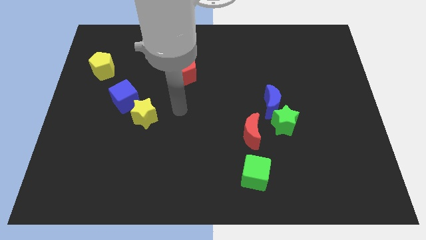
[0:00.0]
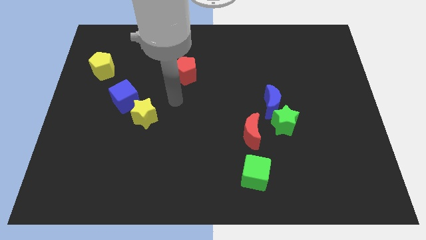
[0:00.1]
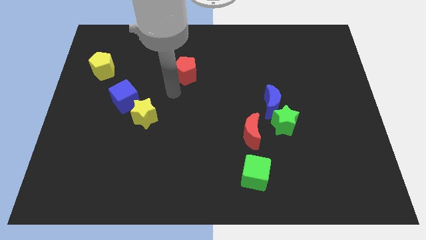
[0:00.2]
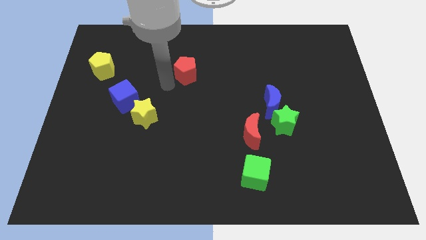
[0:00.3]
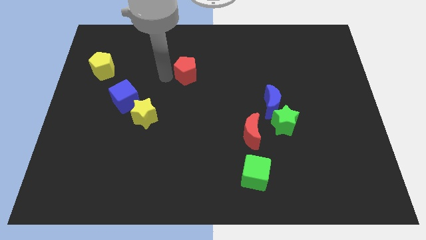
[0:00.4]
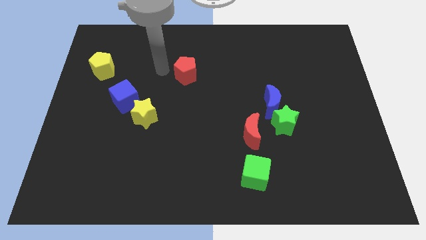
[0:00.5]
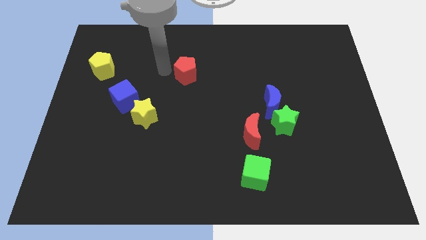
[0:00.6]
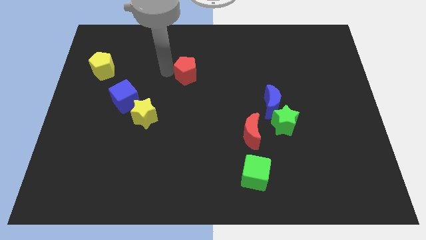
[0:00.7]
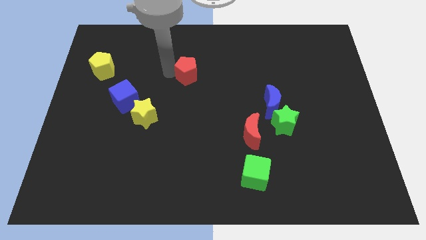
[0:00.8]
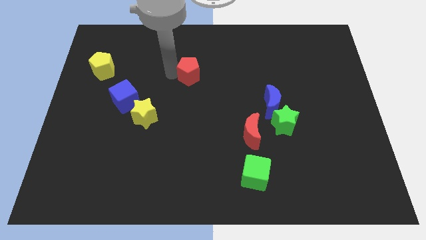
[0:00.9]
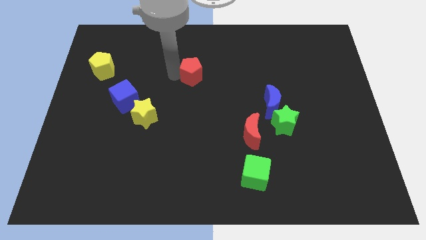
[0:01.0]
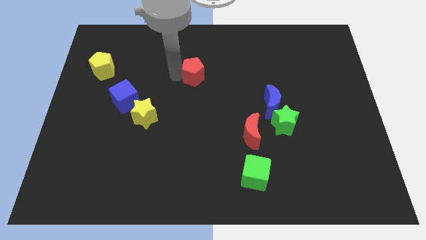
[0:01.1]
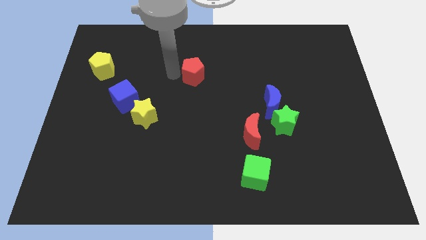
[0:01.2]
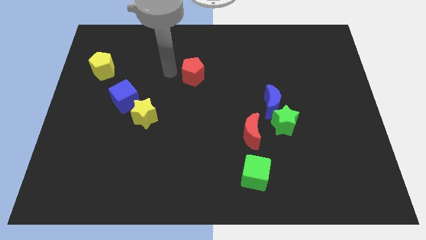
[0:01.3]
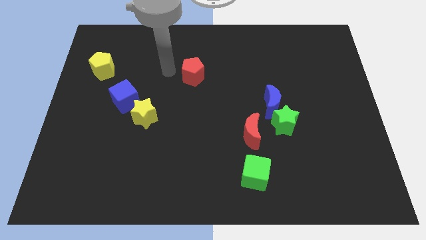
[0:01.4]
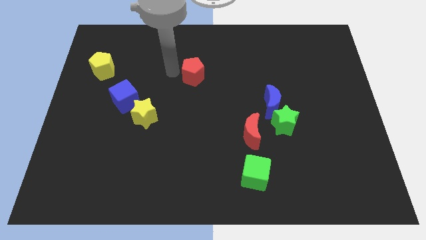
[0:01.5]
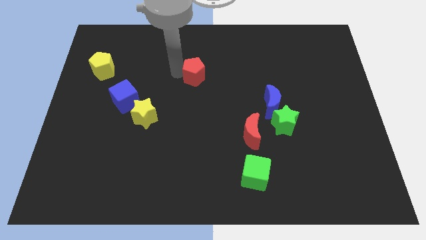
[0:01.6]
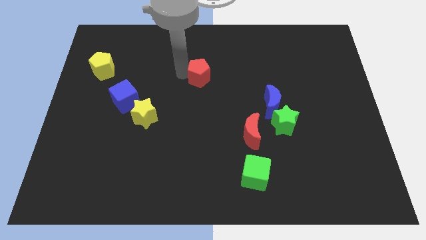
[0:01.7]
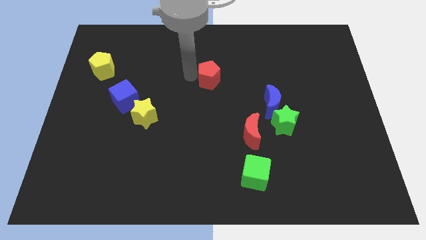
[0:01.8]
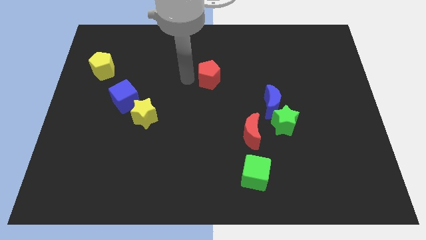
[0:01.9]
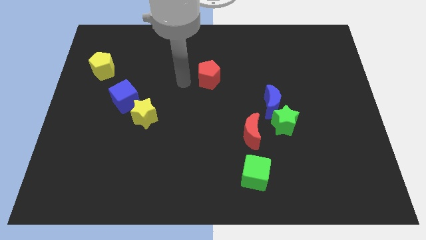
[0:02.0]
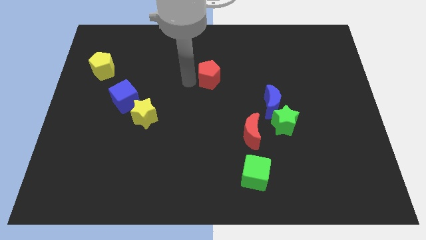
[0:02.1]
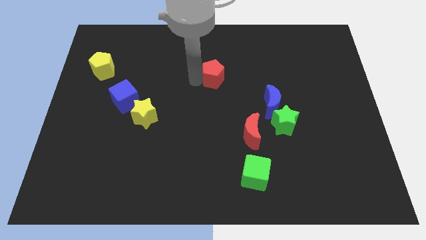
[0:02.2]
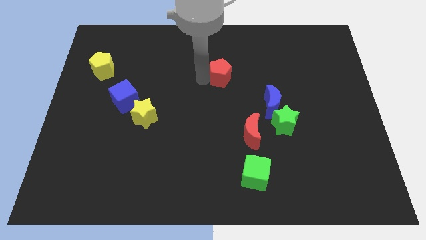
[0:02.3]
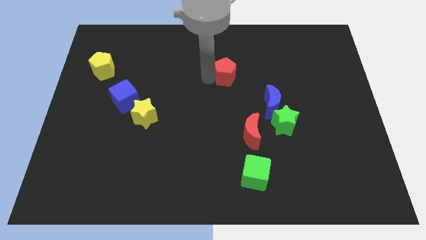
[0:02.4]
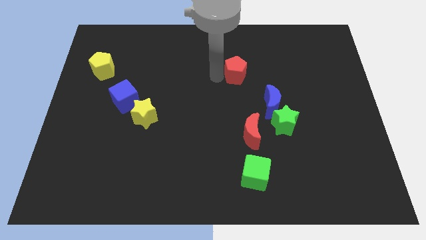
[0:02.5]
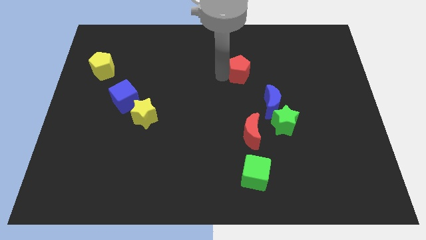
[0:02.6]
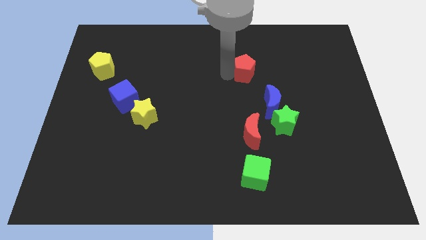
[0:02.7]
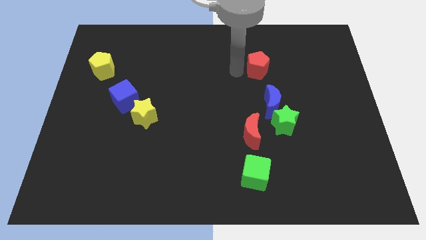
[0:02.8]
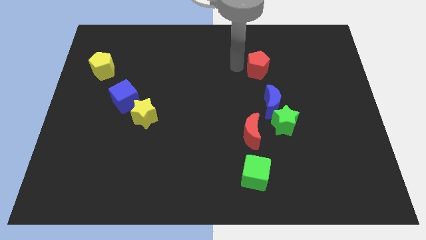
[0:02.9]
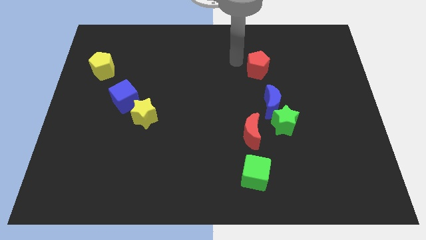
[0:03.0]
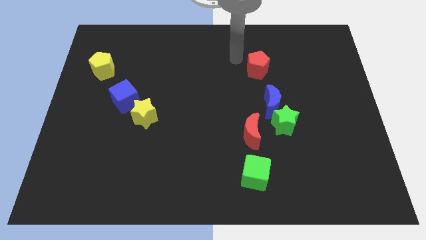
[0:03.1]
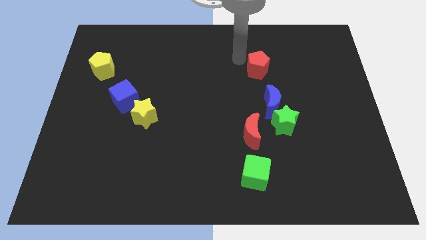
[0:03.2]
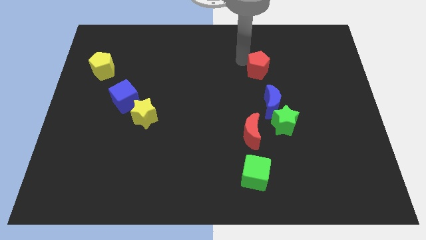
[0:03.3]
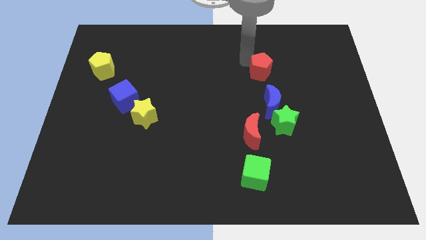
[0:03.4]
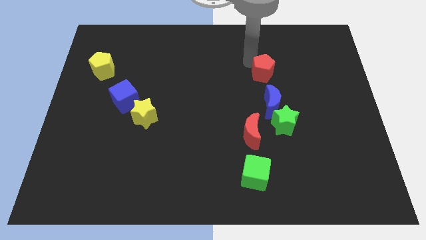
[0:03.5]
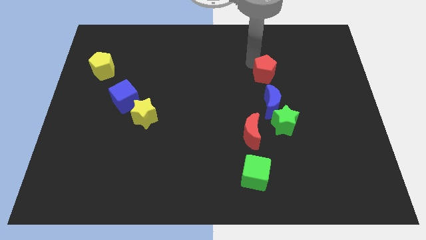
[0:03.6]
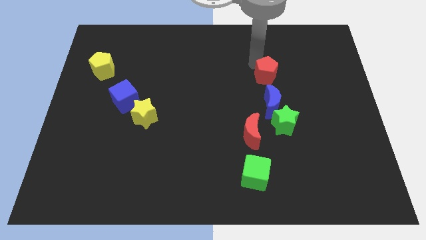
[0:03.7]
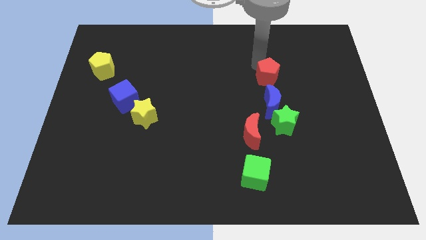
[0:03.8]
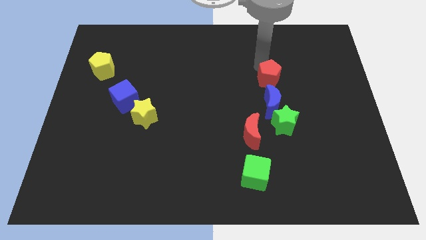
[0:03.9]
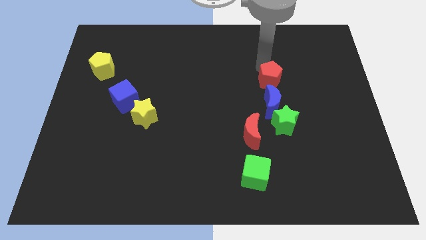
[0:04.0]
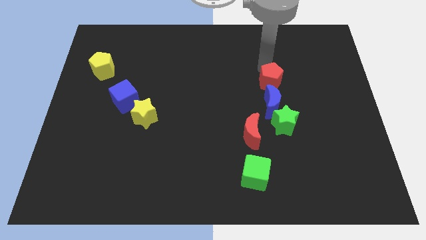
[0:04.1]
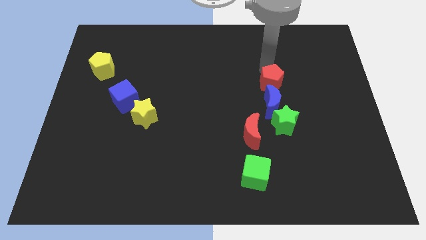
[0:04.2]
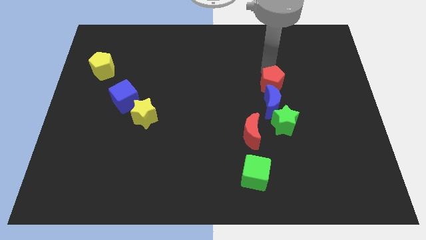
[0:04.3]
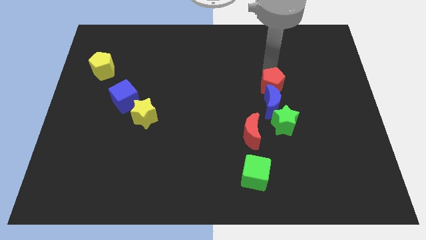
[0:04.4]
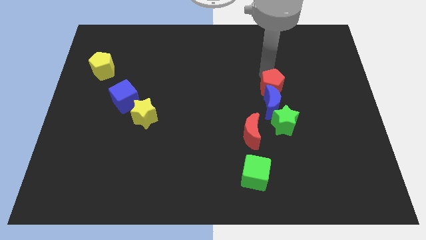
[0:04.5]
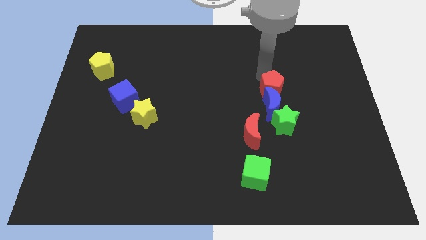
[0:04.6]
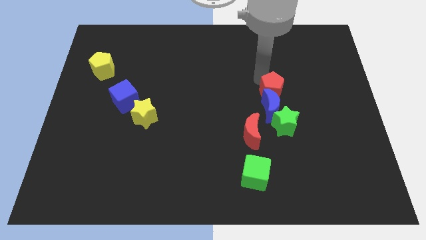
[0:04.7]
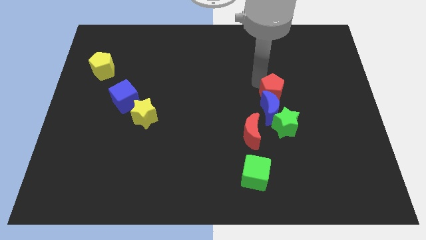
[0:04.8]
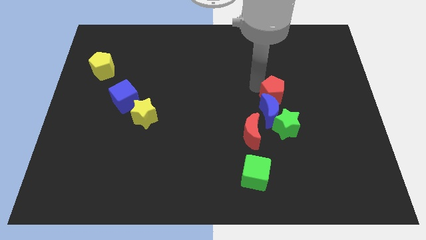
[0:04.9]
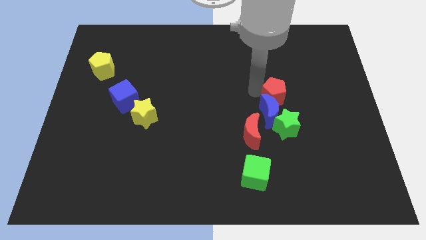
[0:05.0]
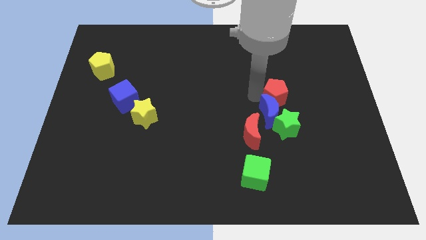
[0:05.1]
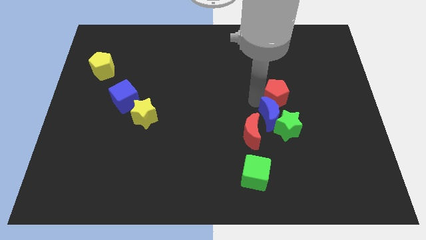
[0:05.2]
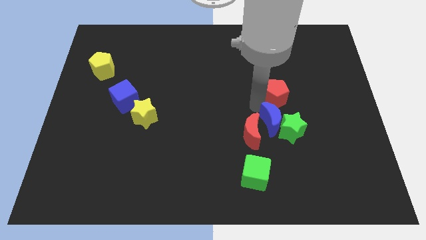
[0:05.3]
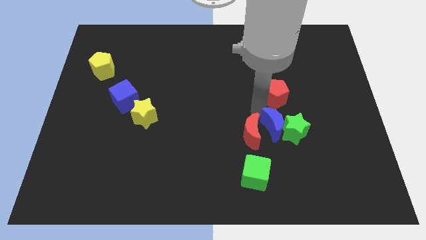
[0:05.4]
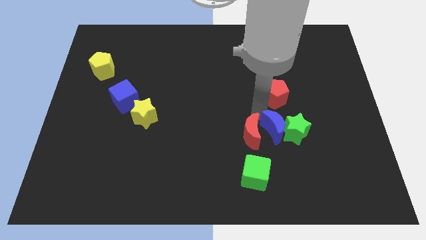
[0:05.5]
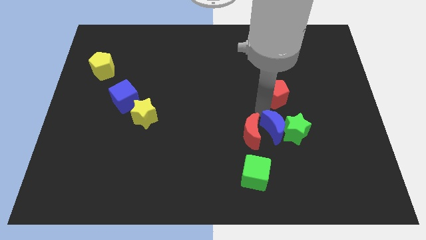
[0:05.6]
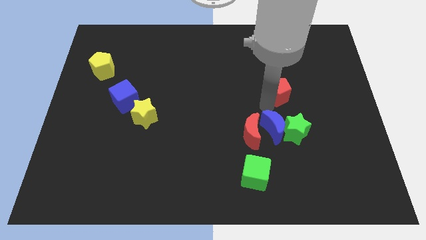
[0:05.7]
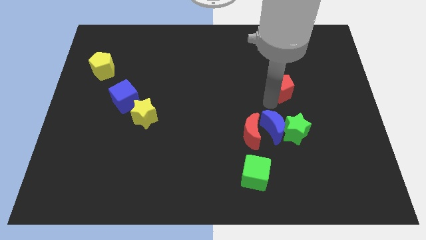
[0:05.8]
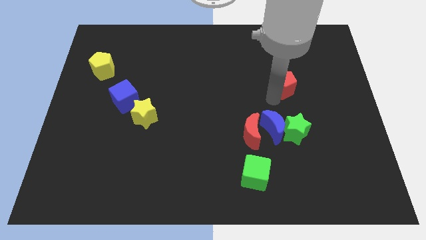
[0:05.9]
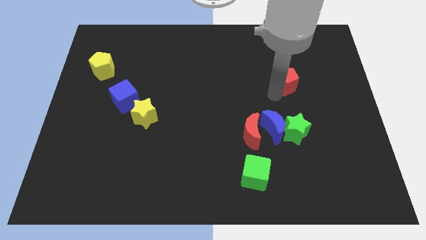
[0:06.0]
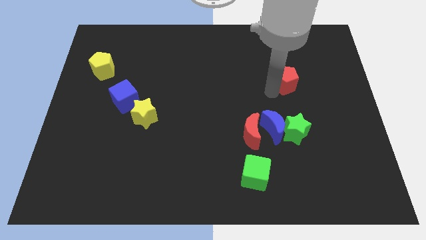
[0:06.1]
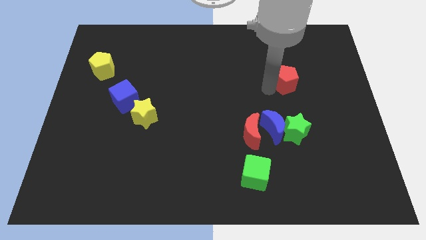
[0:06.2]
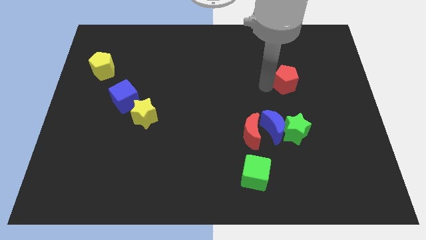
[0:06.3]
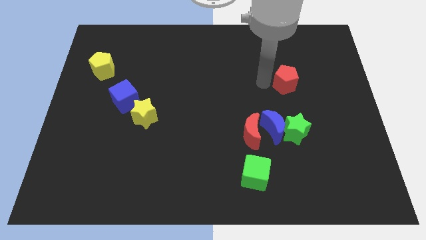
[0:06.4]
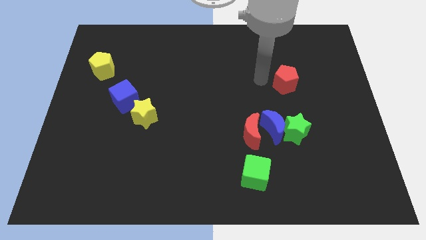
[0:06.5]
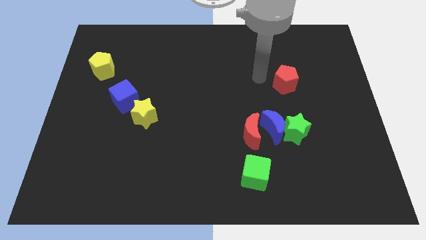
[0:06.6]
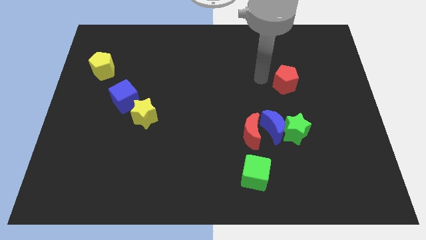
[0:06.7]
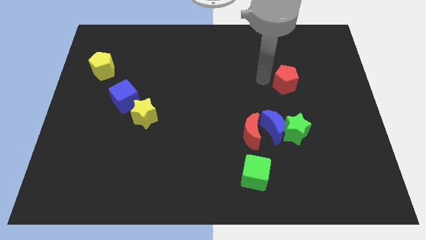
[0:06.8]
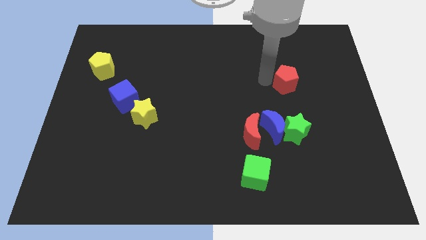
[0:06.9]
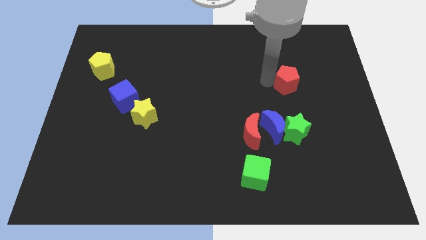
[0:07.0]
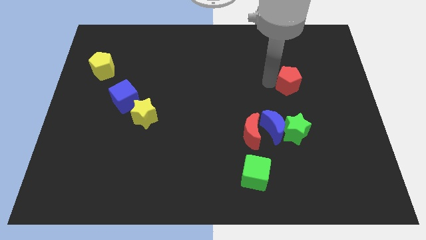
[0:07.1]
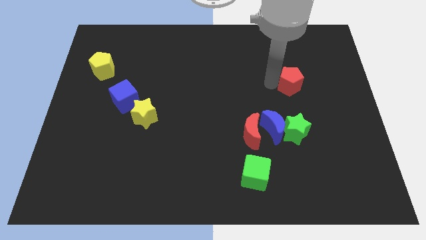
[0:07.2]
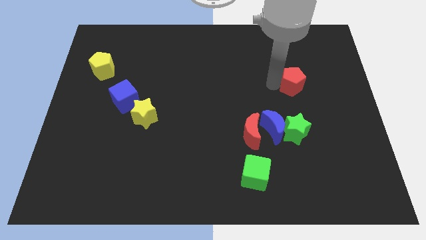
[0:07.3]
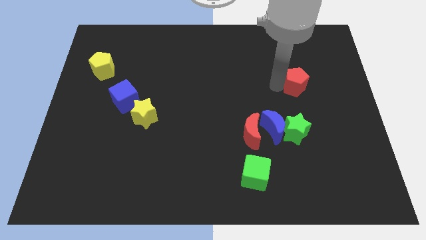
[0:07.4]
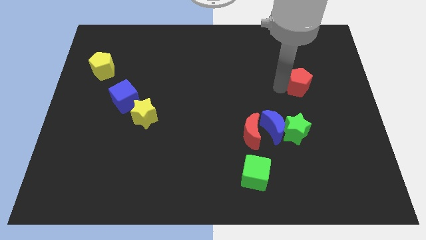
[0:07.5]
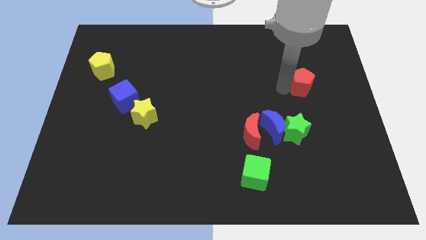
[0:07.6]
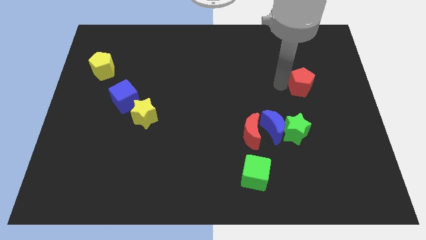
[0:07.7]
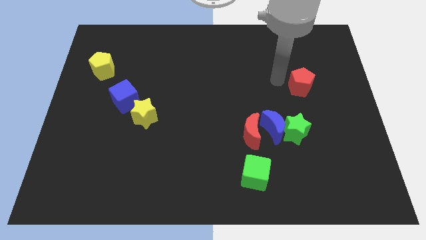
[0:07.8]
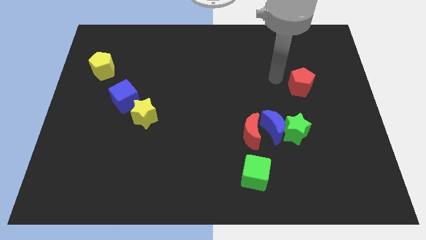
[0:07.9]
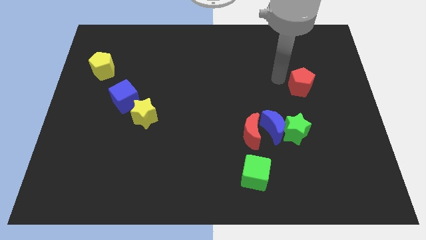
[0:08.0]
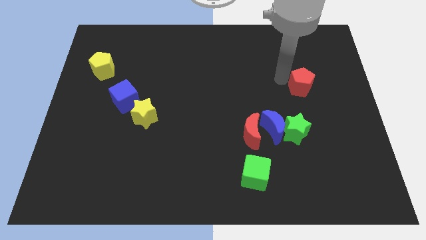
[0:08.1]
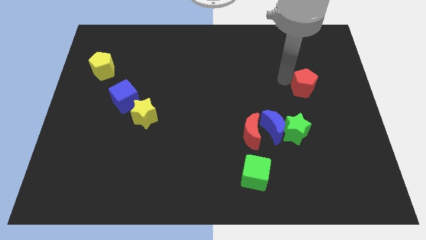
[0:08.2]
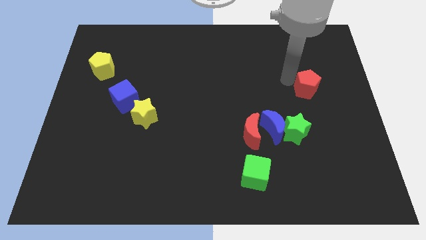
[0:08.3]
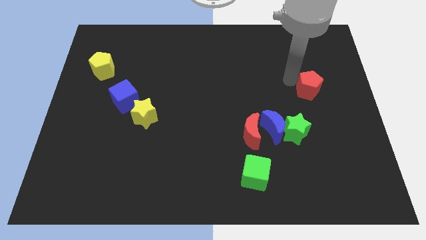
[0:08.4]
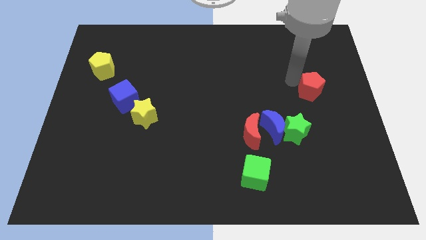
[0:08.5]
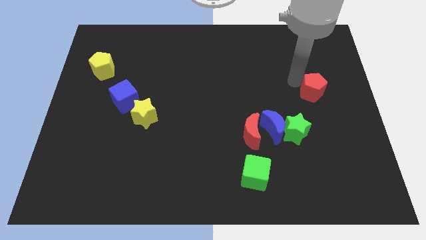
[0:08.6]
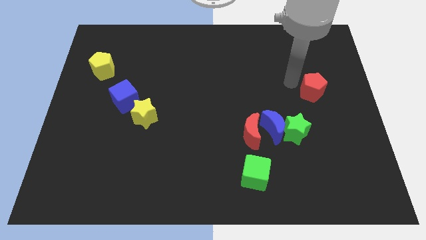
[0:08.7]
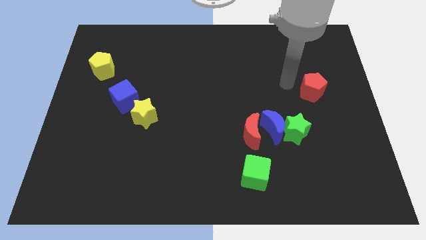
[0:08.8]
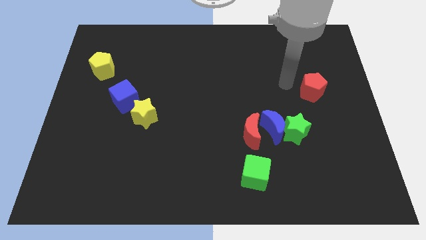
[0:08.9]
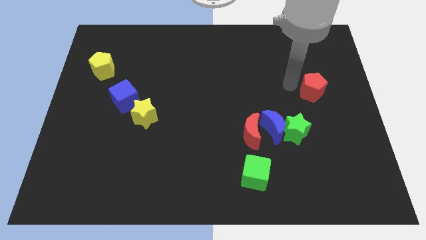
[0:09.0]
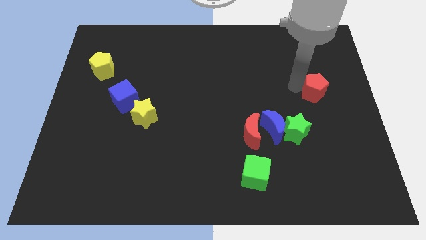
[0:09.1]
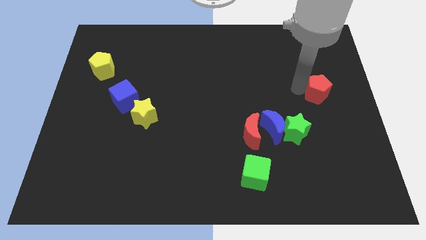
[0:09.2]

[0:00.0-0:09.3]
slide the red pentagon to the right side of the board
